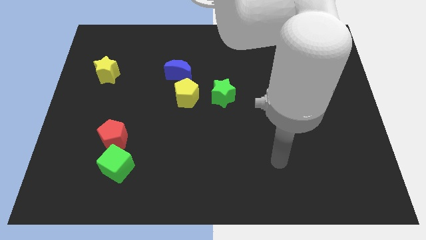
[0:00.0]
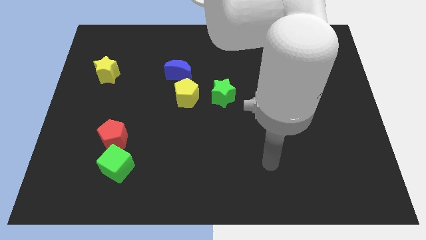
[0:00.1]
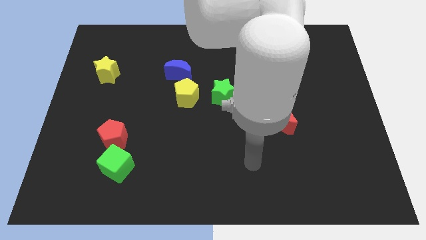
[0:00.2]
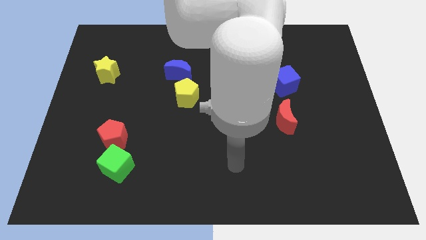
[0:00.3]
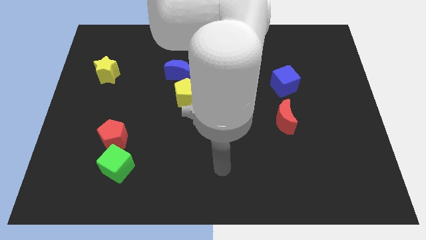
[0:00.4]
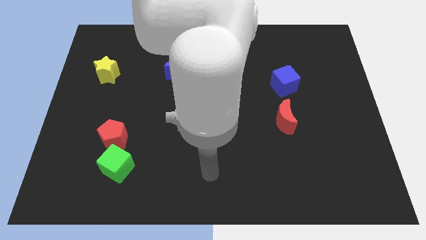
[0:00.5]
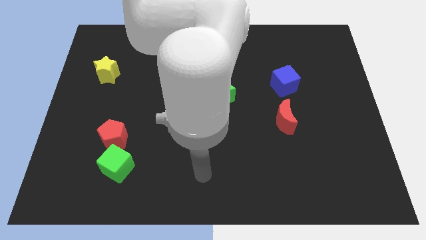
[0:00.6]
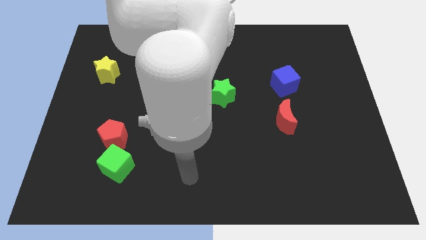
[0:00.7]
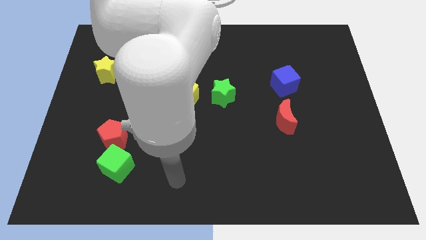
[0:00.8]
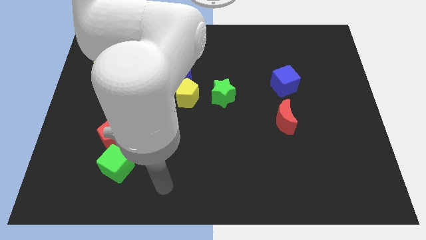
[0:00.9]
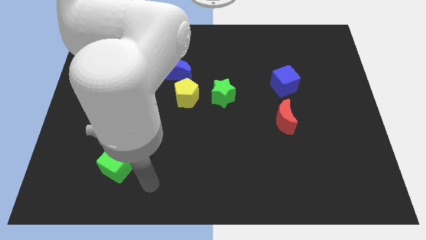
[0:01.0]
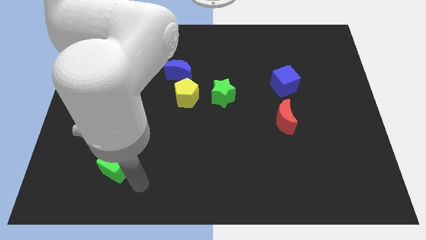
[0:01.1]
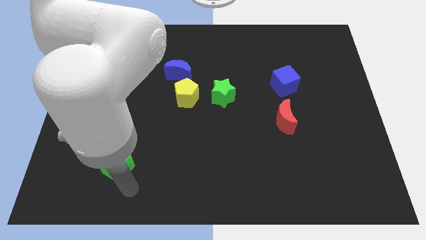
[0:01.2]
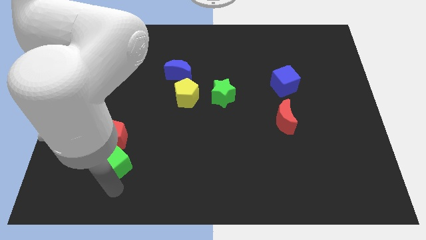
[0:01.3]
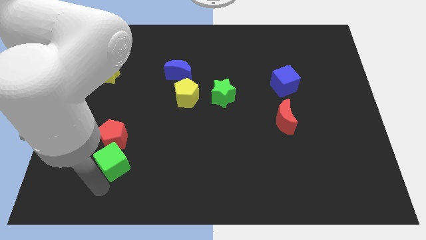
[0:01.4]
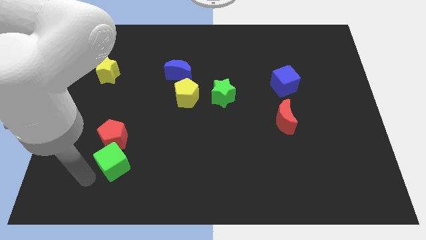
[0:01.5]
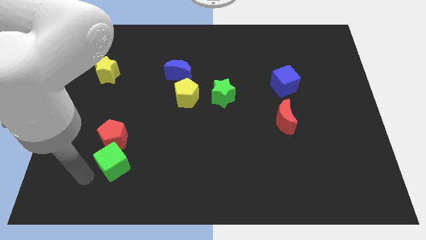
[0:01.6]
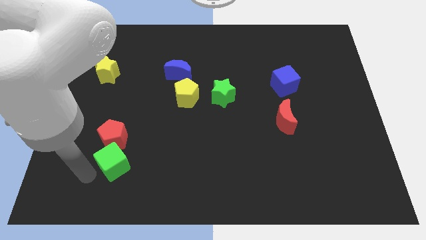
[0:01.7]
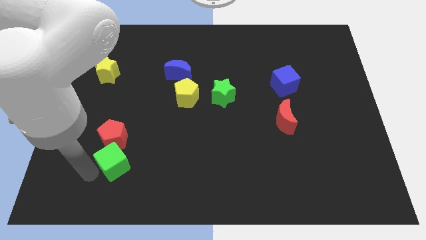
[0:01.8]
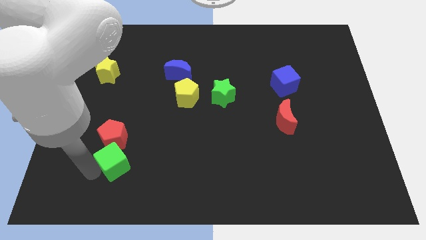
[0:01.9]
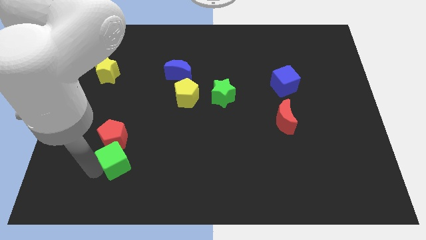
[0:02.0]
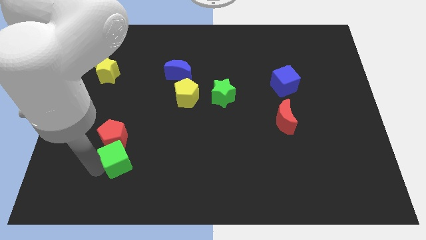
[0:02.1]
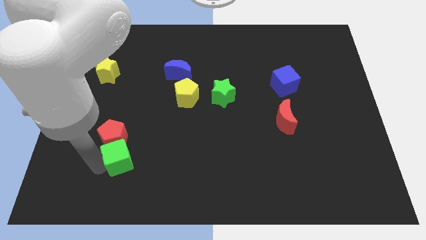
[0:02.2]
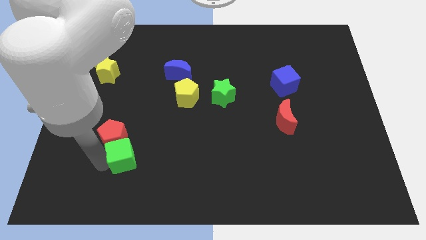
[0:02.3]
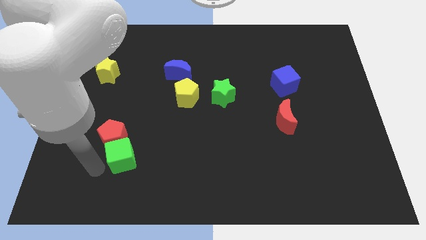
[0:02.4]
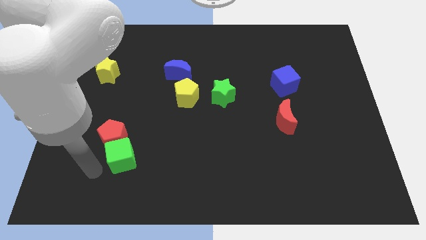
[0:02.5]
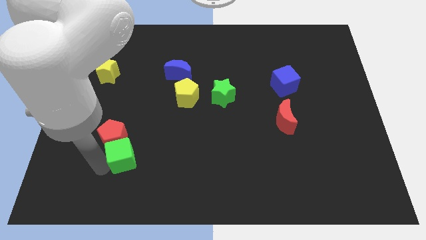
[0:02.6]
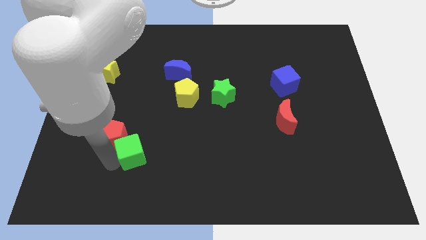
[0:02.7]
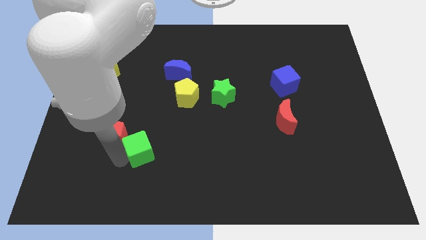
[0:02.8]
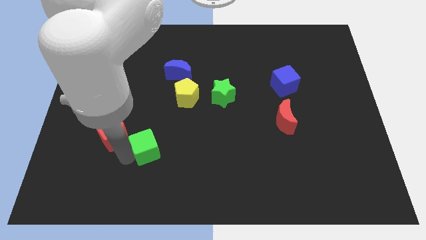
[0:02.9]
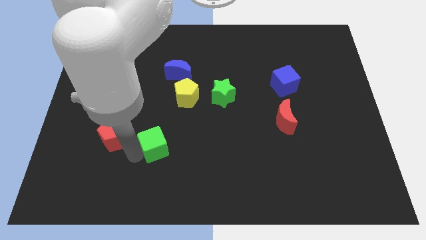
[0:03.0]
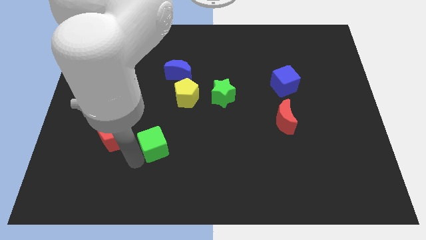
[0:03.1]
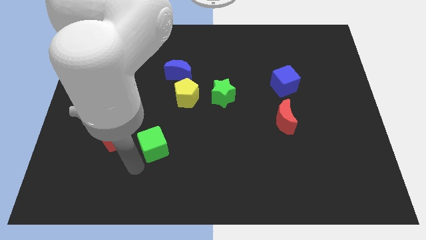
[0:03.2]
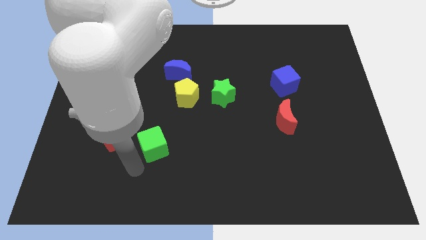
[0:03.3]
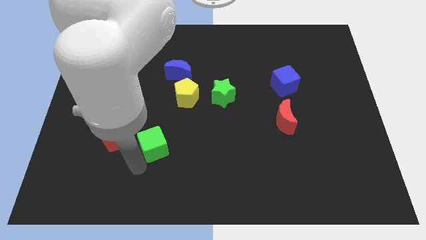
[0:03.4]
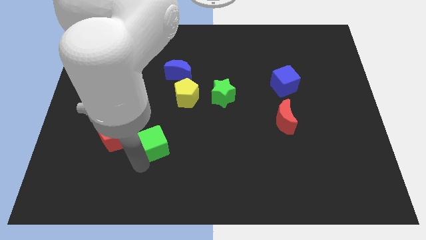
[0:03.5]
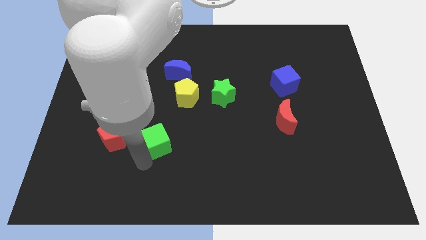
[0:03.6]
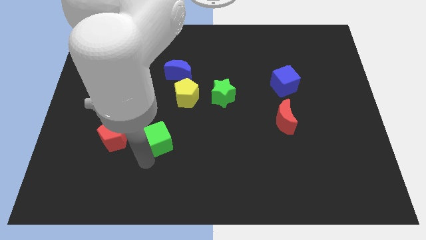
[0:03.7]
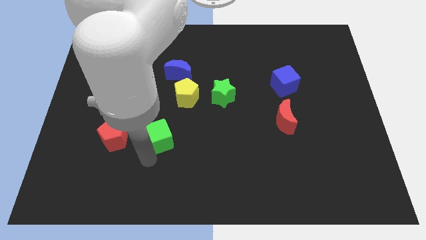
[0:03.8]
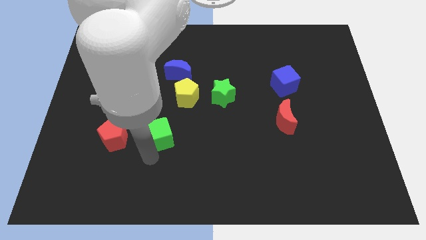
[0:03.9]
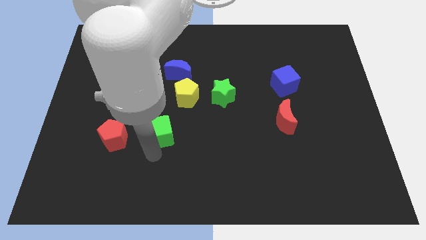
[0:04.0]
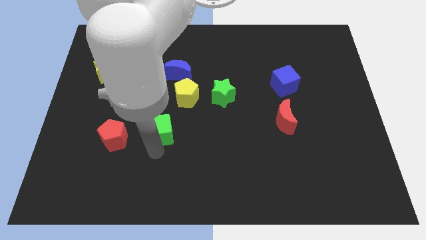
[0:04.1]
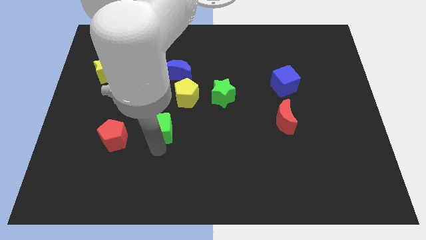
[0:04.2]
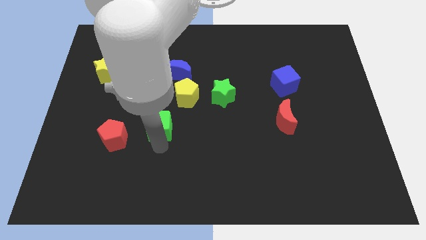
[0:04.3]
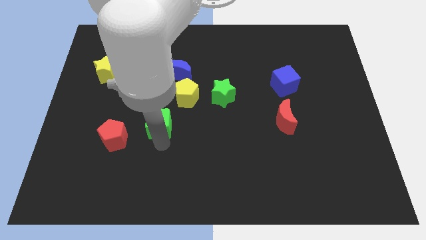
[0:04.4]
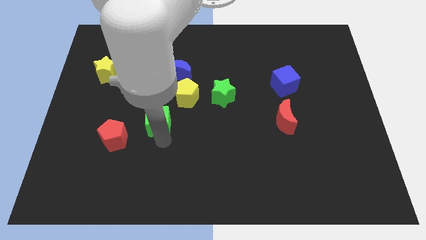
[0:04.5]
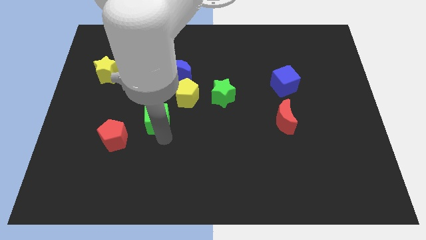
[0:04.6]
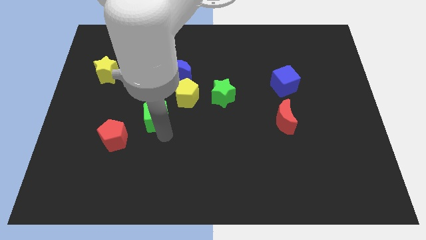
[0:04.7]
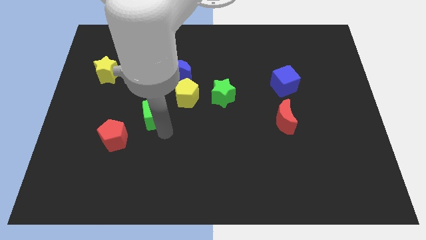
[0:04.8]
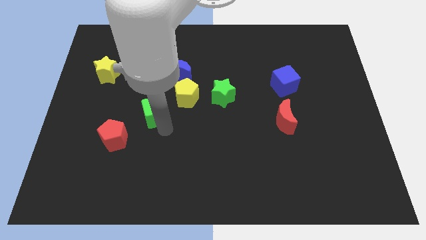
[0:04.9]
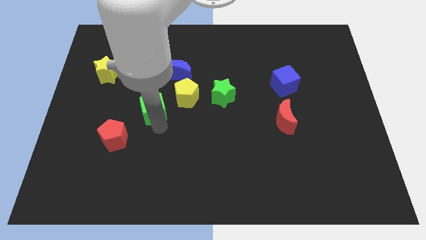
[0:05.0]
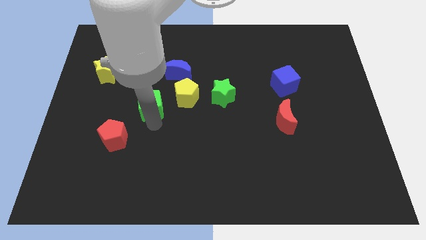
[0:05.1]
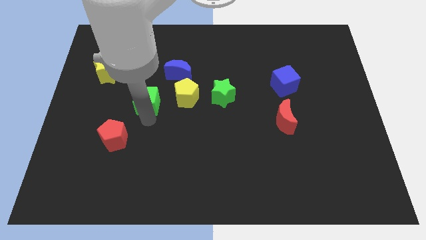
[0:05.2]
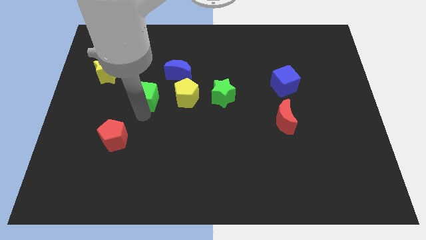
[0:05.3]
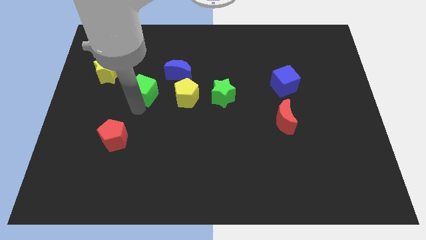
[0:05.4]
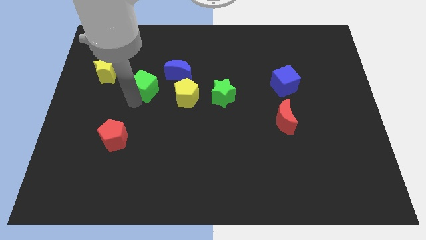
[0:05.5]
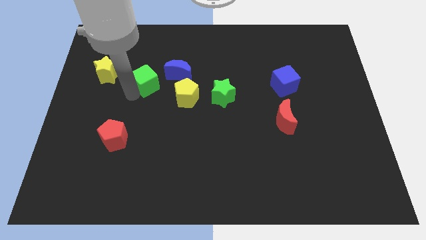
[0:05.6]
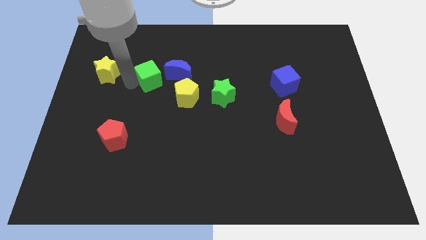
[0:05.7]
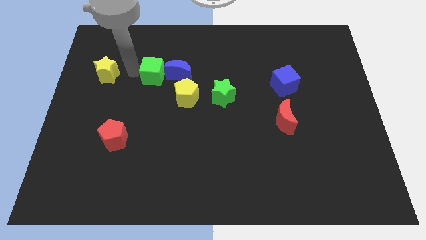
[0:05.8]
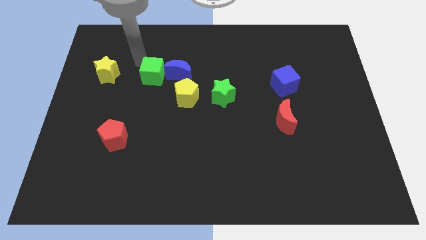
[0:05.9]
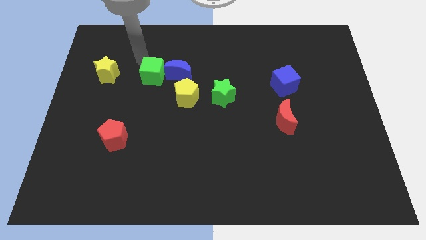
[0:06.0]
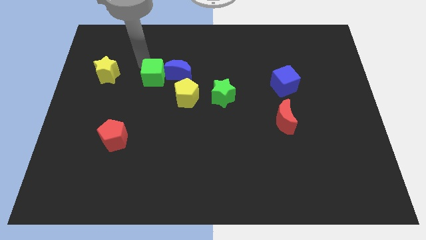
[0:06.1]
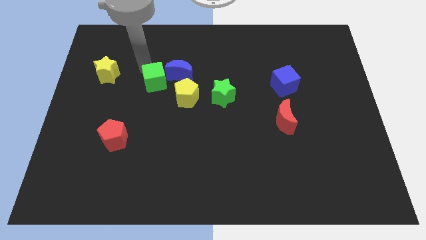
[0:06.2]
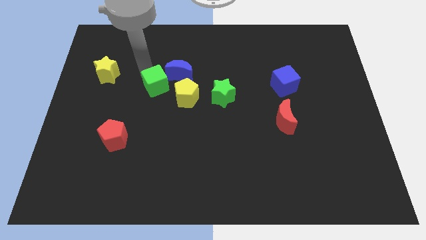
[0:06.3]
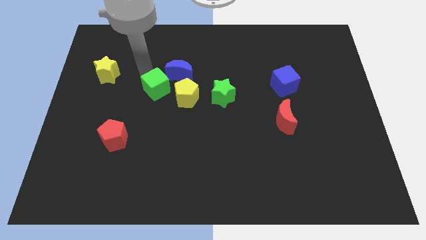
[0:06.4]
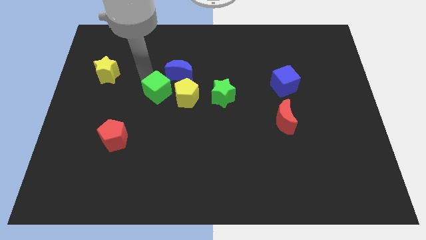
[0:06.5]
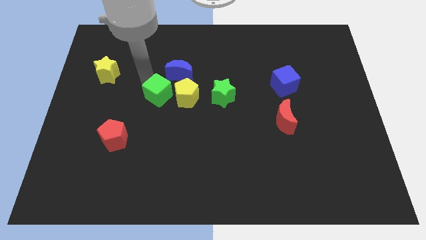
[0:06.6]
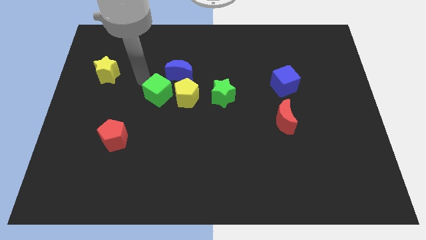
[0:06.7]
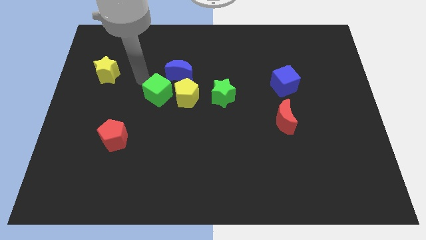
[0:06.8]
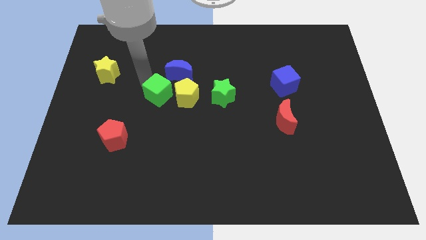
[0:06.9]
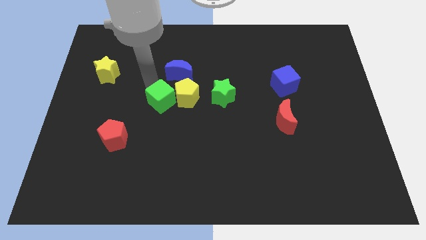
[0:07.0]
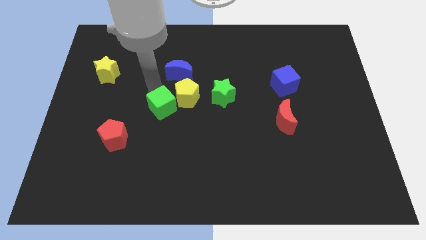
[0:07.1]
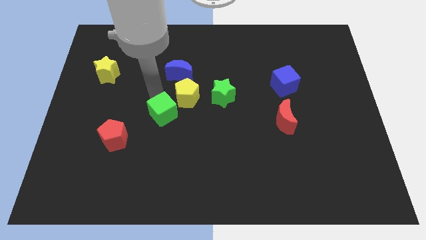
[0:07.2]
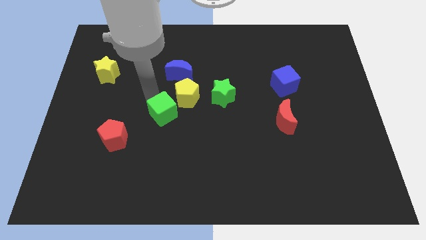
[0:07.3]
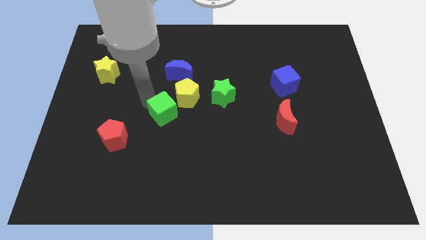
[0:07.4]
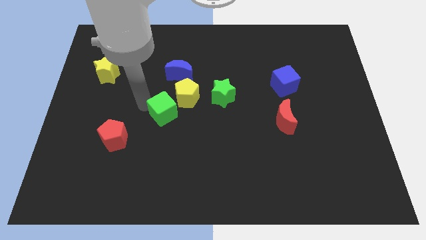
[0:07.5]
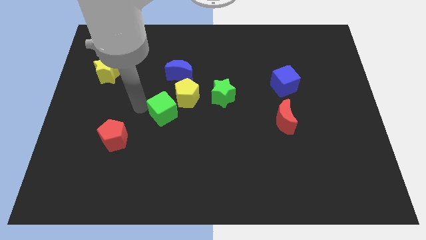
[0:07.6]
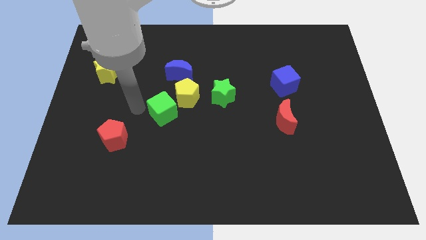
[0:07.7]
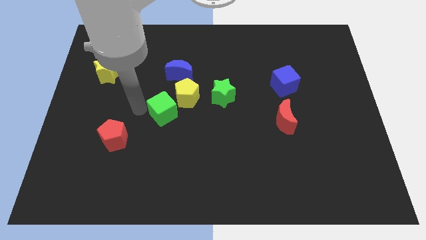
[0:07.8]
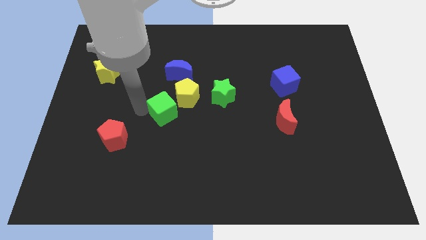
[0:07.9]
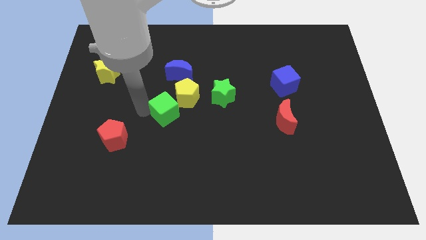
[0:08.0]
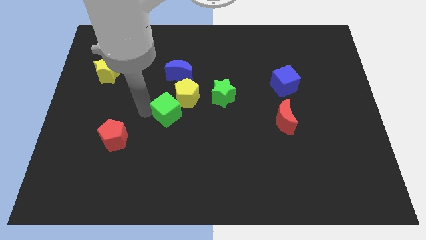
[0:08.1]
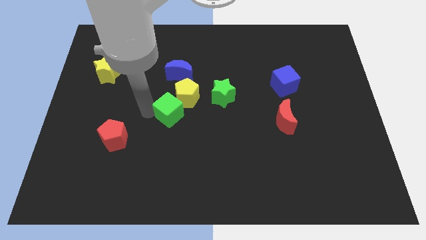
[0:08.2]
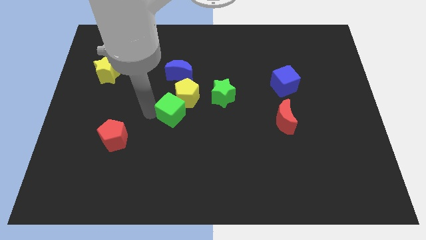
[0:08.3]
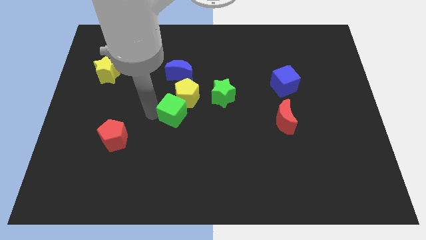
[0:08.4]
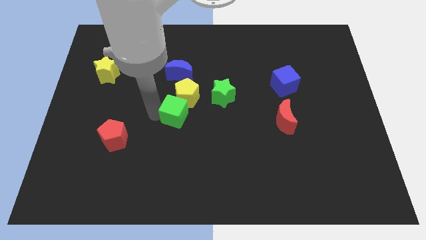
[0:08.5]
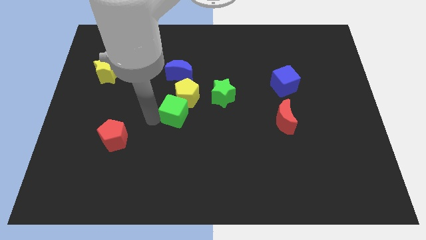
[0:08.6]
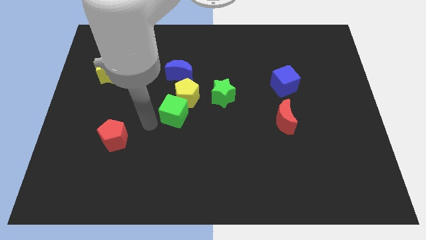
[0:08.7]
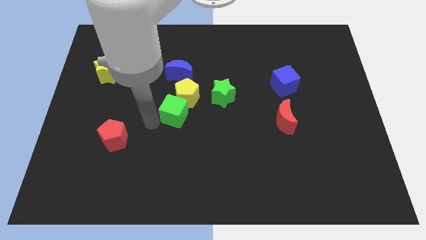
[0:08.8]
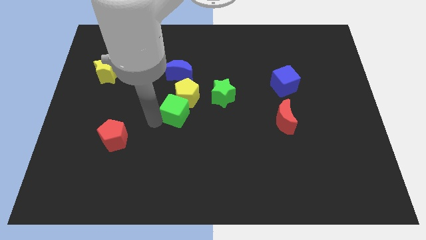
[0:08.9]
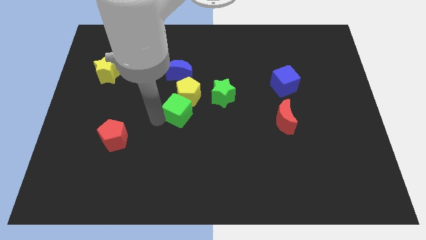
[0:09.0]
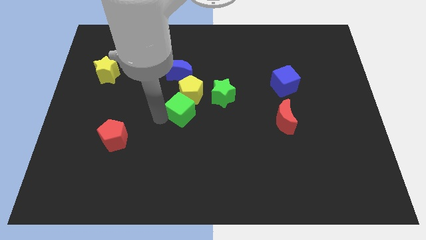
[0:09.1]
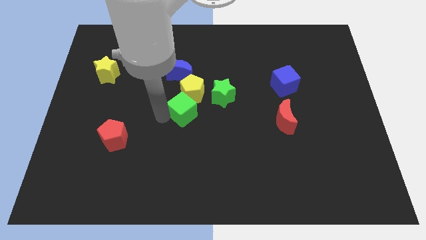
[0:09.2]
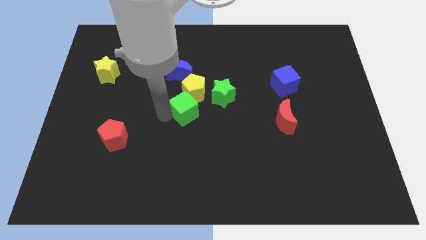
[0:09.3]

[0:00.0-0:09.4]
move the green cube up and then to the right
